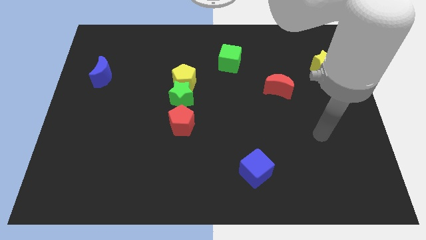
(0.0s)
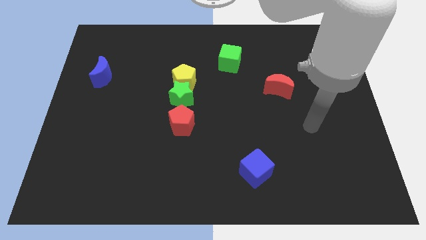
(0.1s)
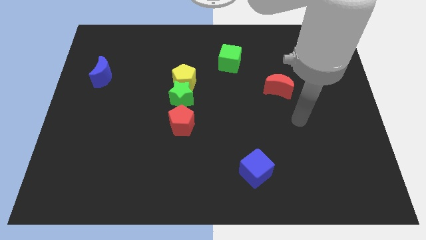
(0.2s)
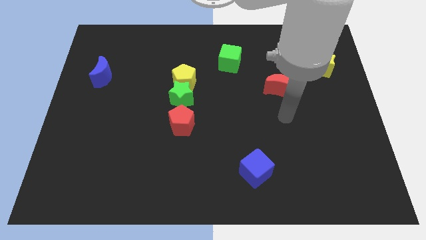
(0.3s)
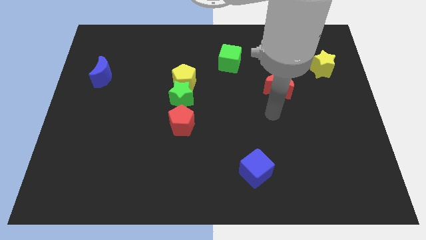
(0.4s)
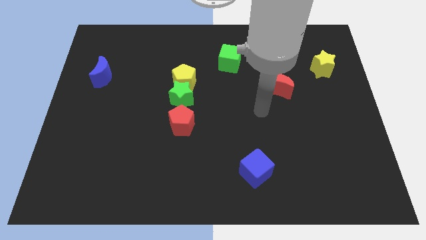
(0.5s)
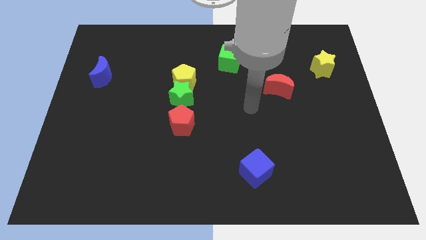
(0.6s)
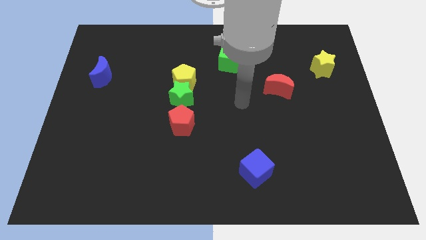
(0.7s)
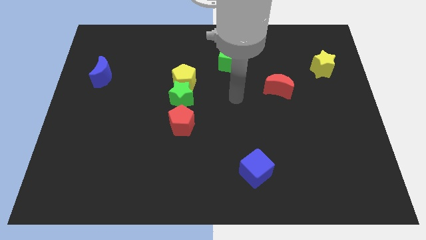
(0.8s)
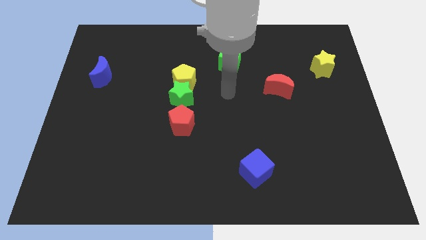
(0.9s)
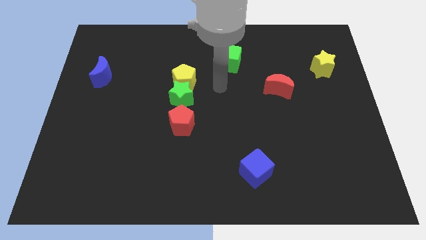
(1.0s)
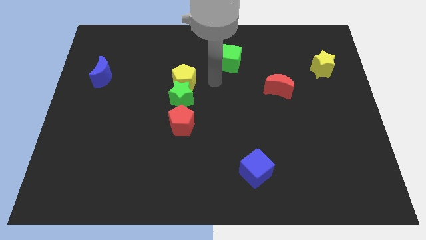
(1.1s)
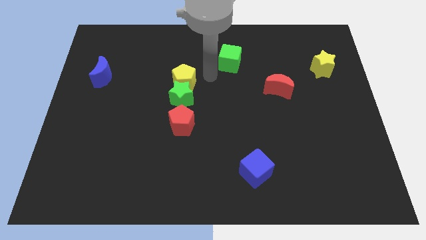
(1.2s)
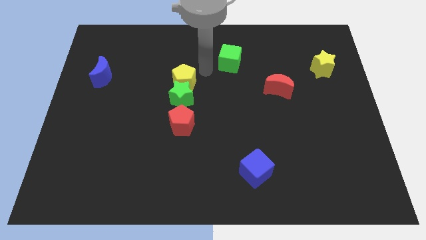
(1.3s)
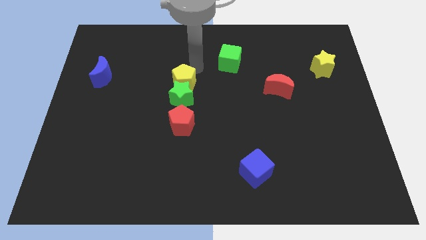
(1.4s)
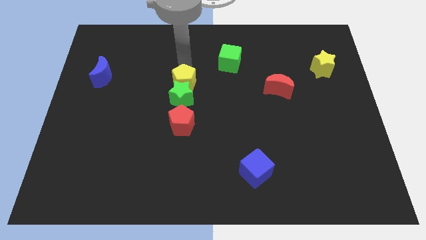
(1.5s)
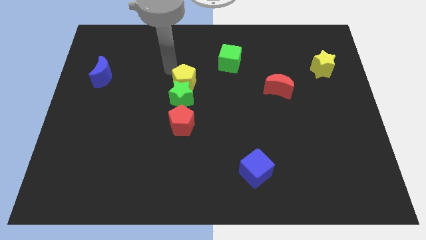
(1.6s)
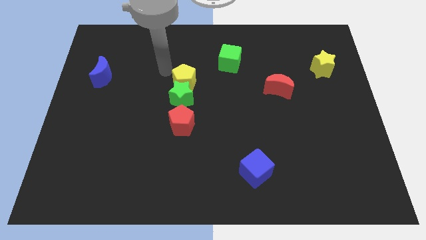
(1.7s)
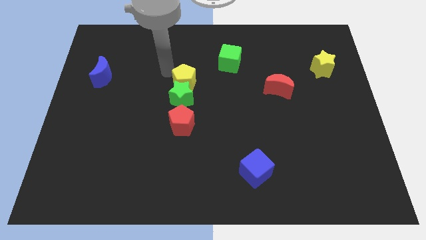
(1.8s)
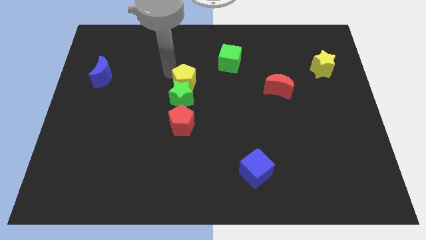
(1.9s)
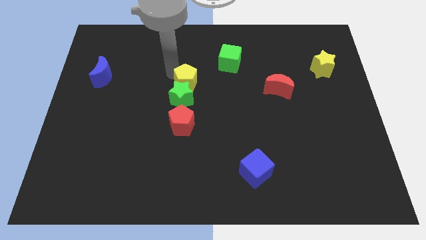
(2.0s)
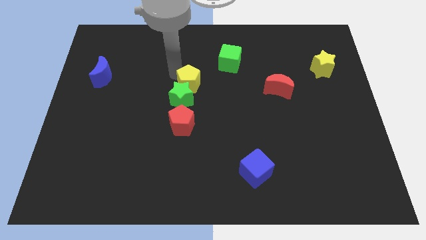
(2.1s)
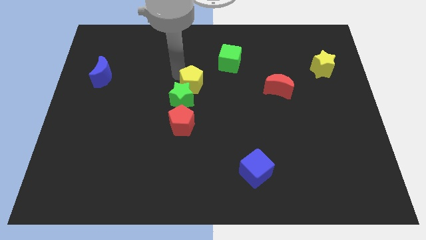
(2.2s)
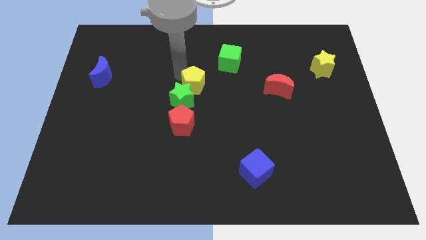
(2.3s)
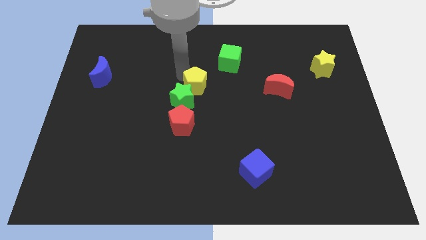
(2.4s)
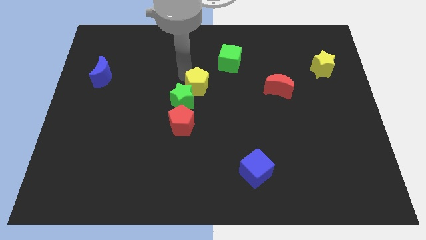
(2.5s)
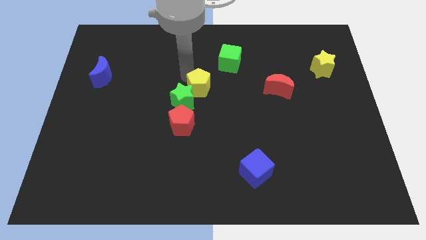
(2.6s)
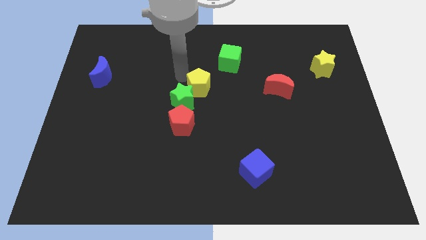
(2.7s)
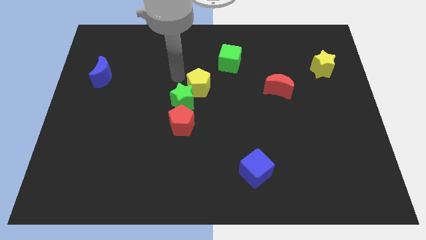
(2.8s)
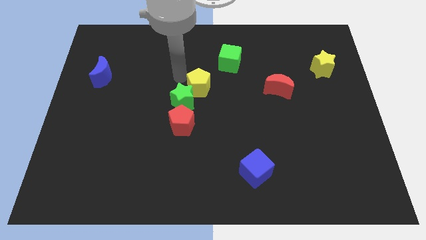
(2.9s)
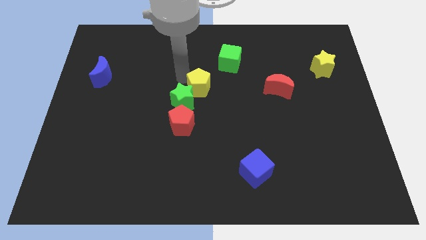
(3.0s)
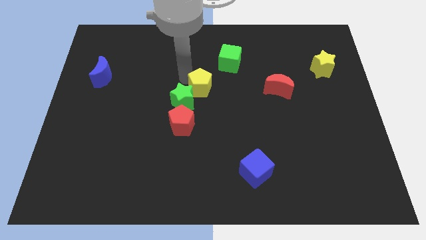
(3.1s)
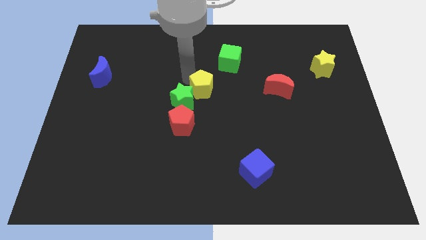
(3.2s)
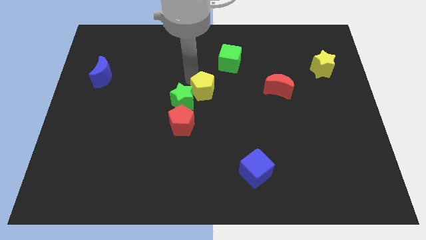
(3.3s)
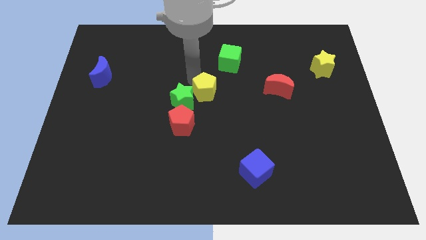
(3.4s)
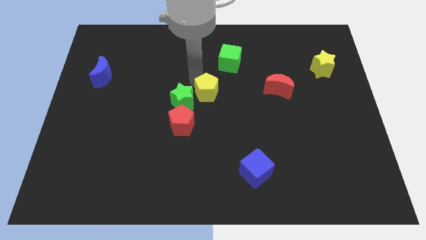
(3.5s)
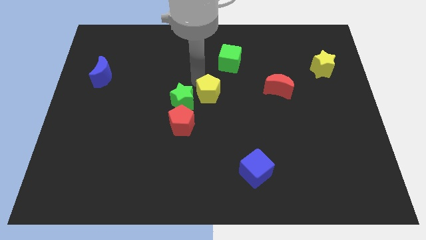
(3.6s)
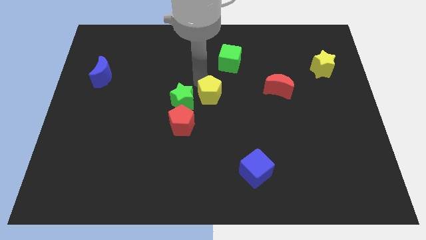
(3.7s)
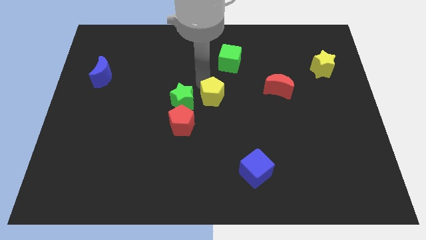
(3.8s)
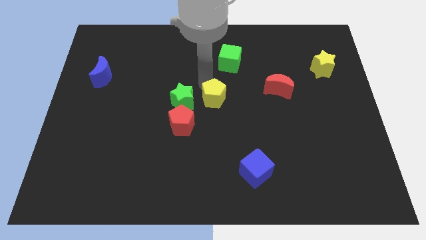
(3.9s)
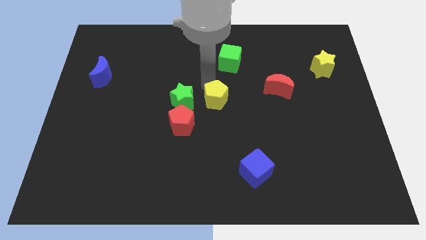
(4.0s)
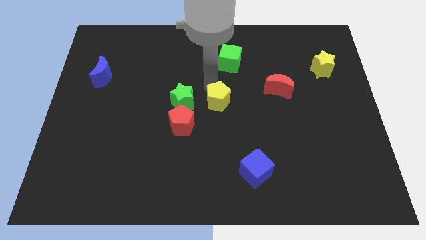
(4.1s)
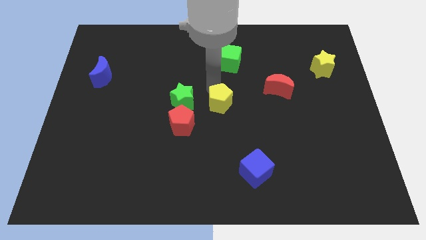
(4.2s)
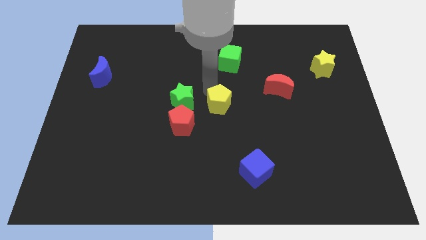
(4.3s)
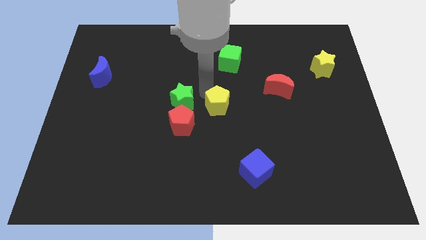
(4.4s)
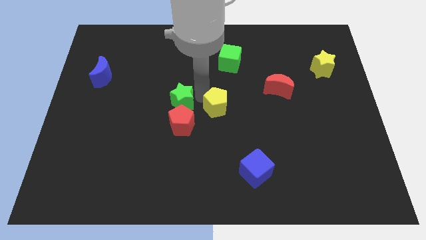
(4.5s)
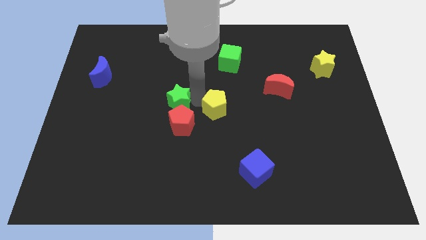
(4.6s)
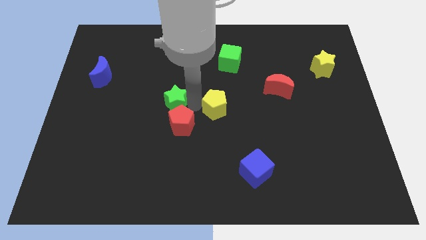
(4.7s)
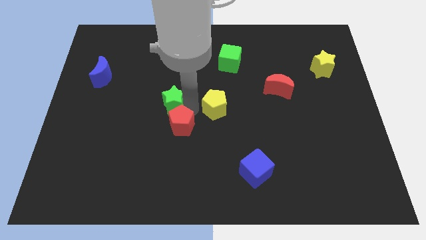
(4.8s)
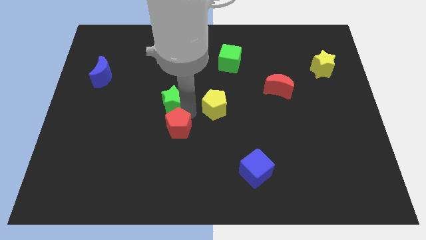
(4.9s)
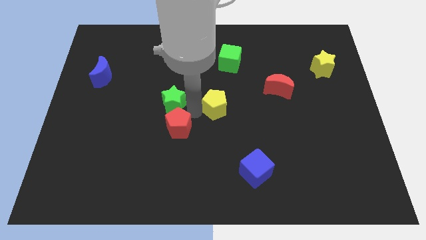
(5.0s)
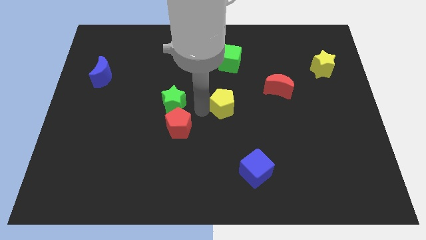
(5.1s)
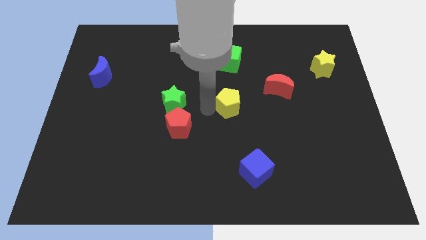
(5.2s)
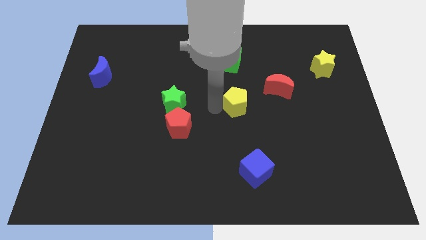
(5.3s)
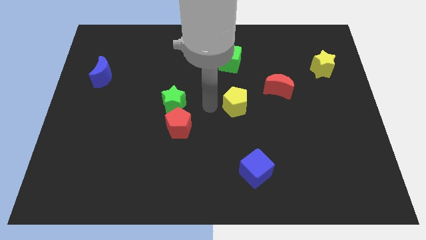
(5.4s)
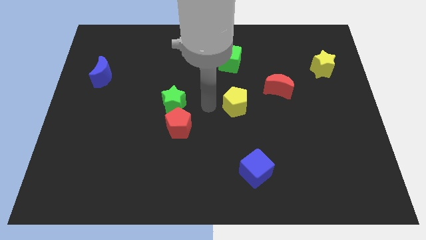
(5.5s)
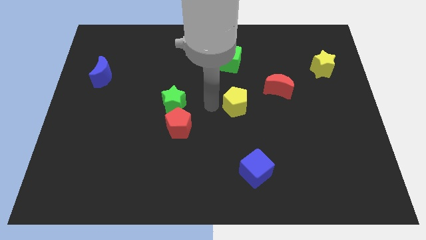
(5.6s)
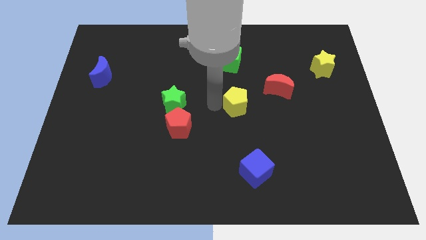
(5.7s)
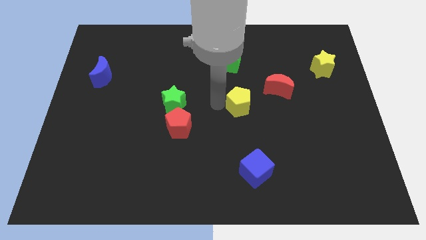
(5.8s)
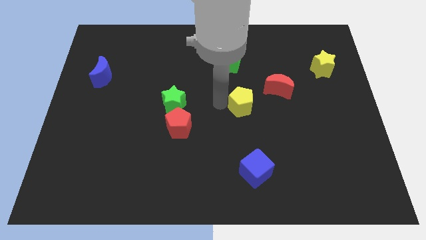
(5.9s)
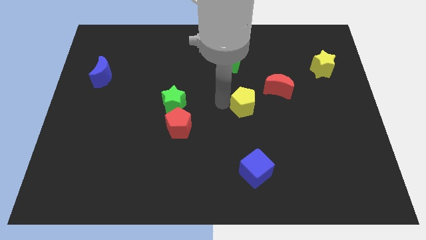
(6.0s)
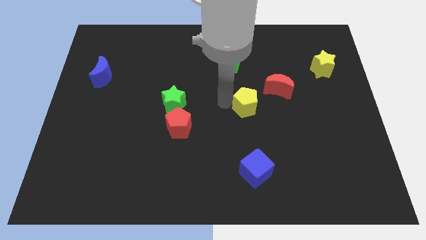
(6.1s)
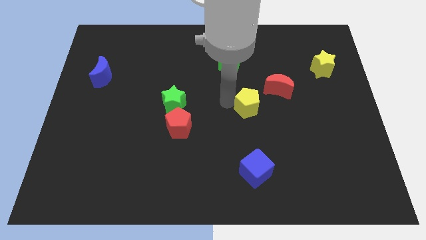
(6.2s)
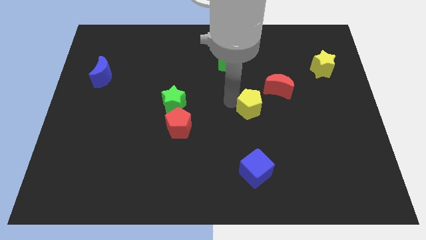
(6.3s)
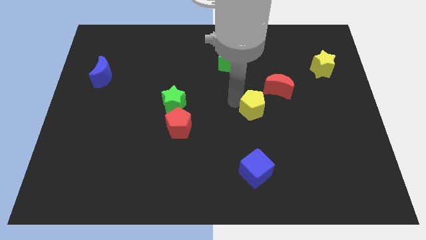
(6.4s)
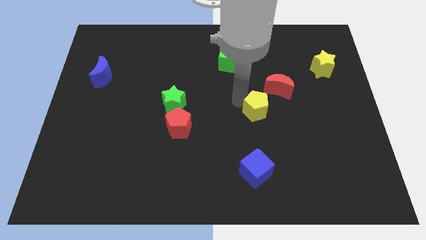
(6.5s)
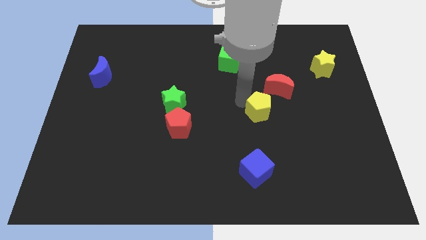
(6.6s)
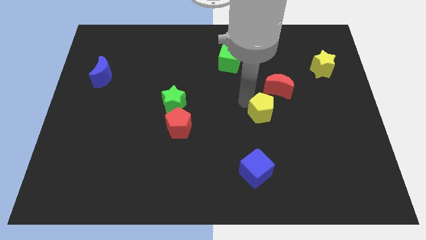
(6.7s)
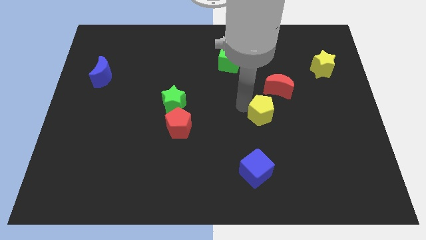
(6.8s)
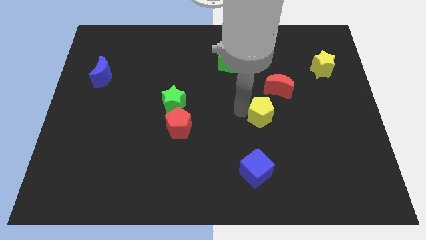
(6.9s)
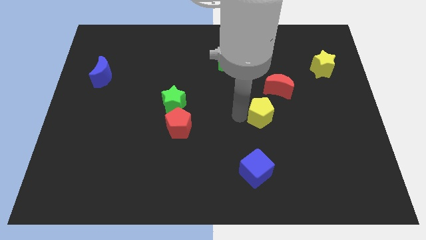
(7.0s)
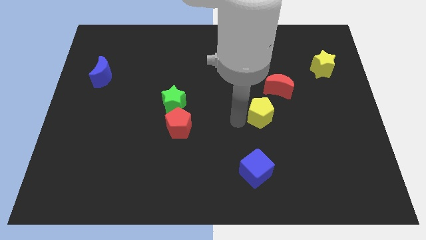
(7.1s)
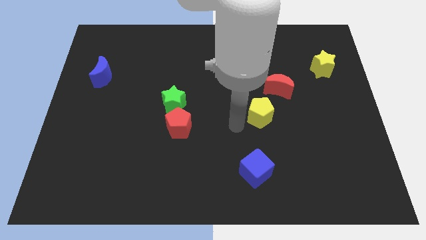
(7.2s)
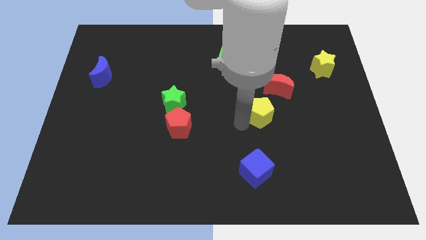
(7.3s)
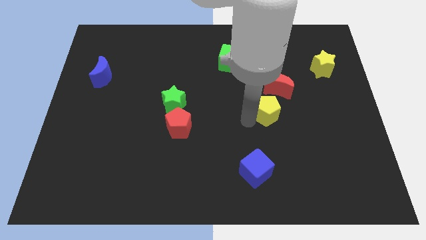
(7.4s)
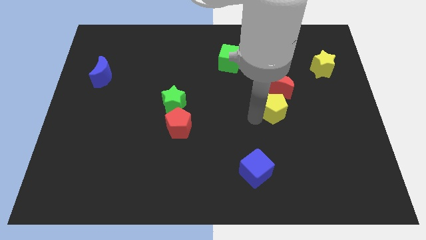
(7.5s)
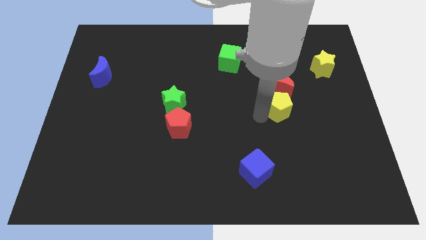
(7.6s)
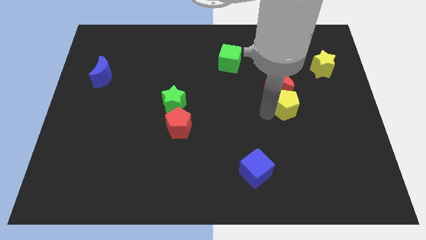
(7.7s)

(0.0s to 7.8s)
slide the yellow pentagon to the bottom right side of the red moon
